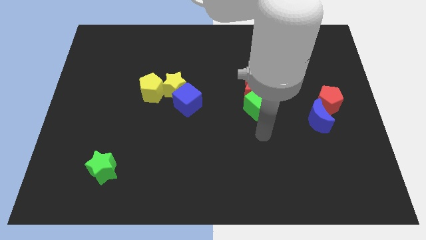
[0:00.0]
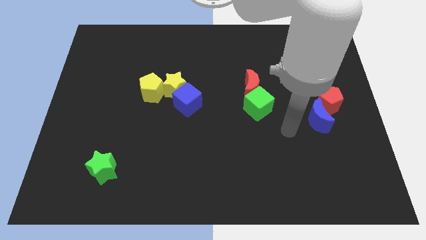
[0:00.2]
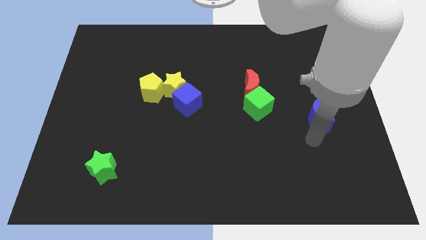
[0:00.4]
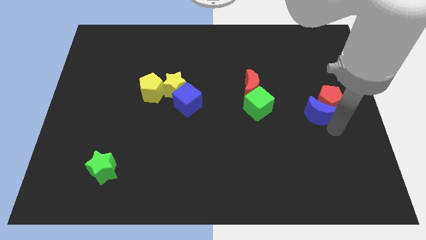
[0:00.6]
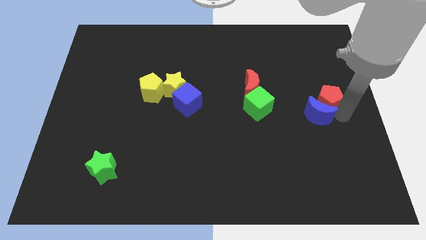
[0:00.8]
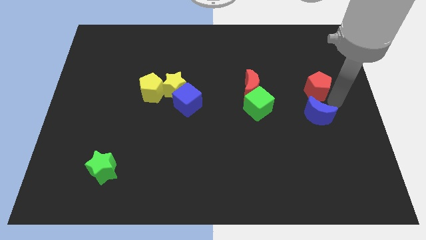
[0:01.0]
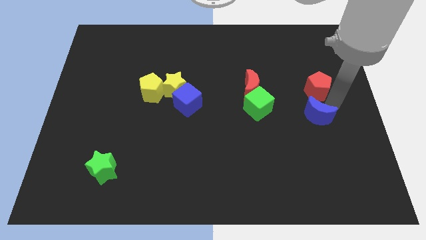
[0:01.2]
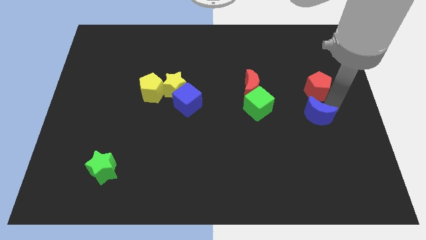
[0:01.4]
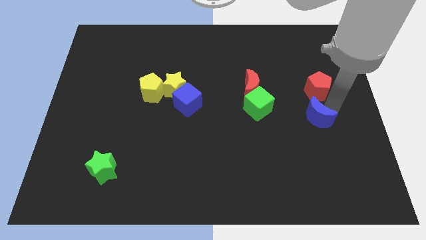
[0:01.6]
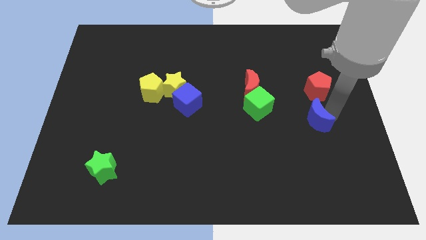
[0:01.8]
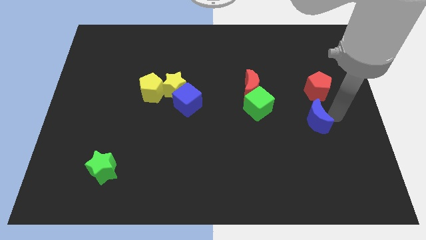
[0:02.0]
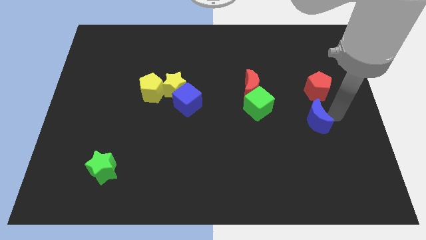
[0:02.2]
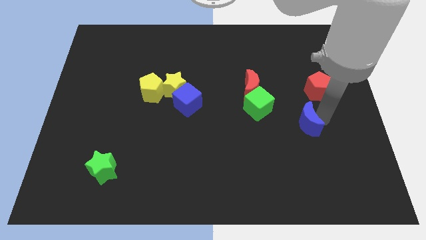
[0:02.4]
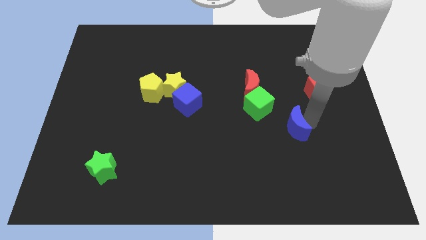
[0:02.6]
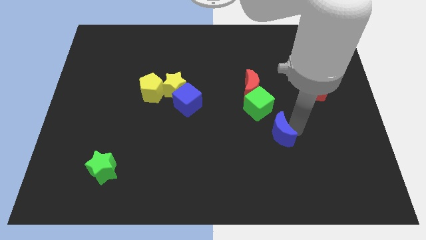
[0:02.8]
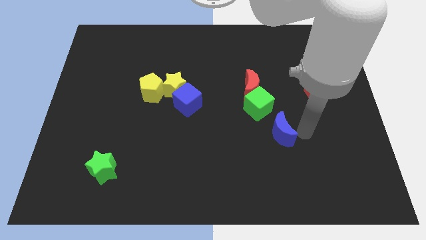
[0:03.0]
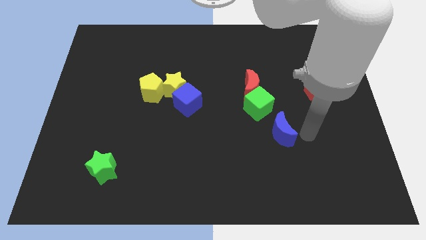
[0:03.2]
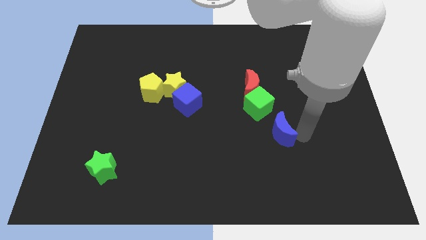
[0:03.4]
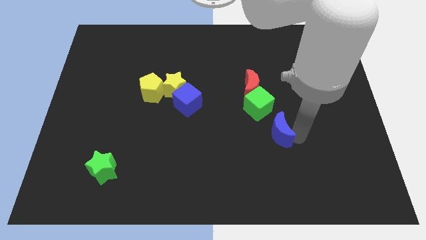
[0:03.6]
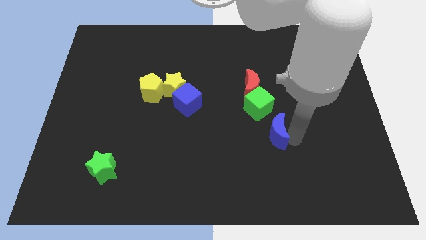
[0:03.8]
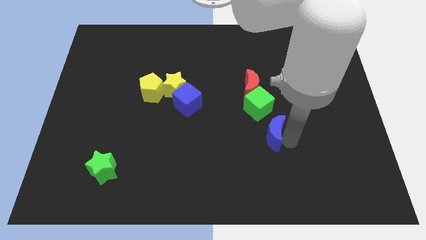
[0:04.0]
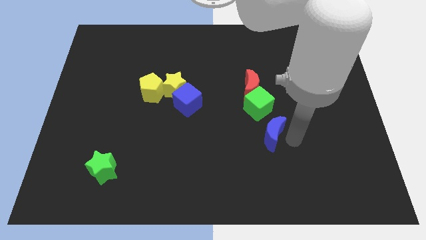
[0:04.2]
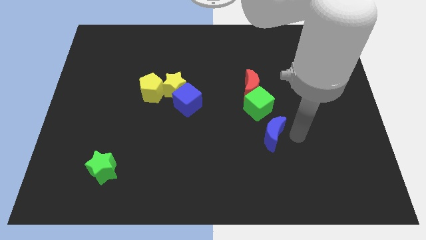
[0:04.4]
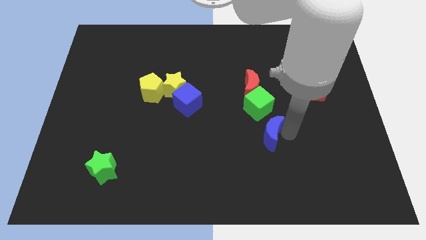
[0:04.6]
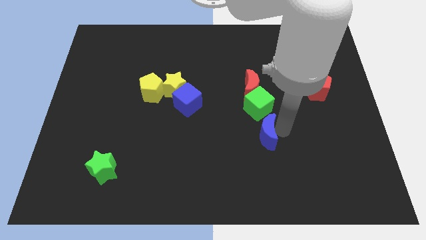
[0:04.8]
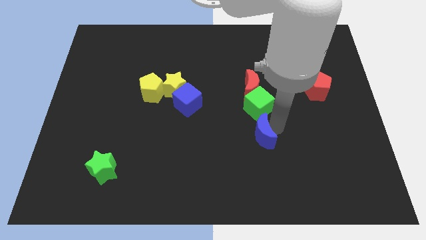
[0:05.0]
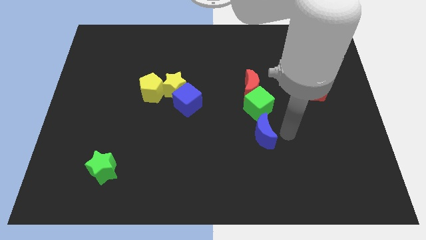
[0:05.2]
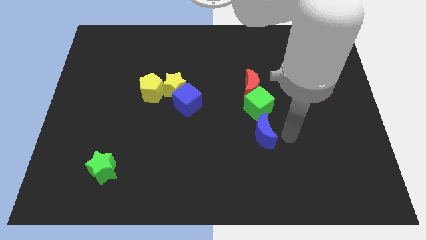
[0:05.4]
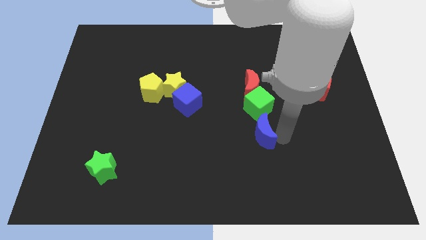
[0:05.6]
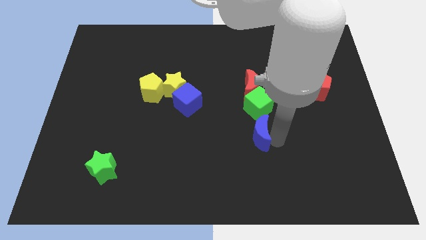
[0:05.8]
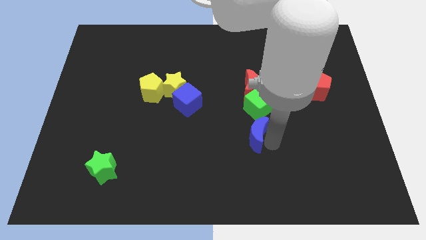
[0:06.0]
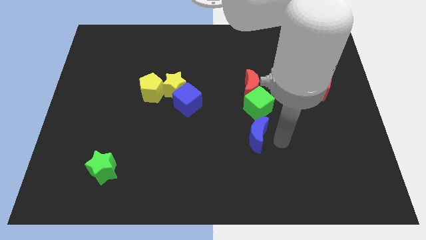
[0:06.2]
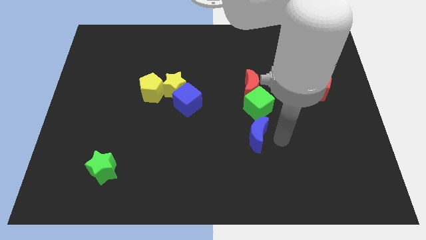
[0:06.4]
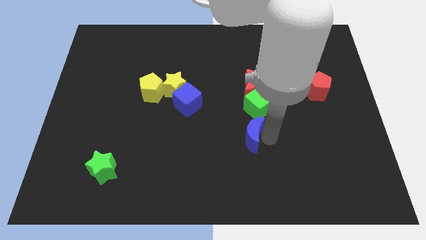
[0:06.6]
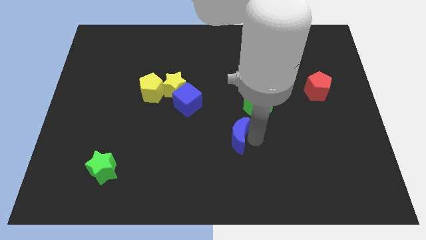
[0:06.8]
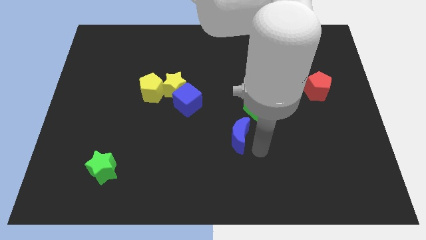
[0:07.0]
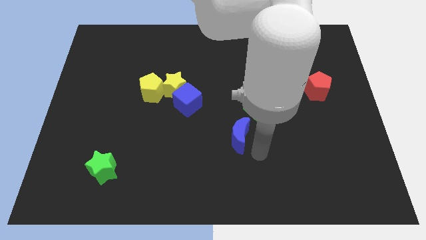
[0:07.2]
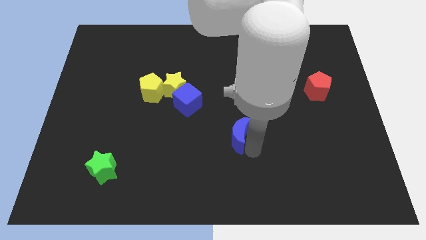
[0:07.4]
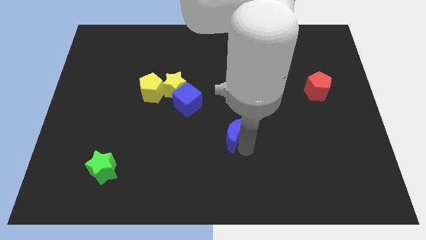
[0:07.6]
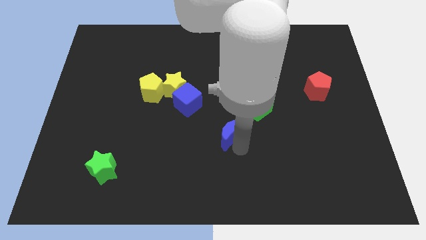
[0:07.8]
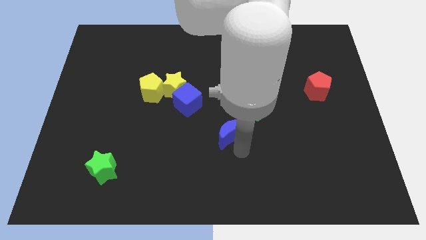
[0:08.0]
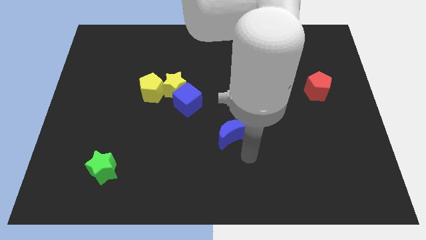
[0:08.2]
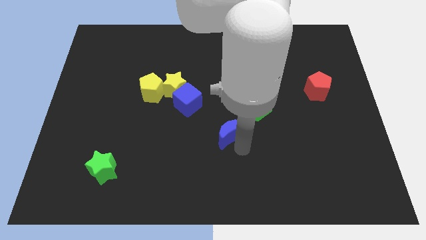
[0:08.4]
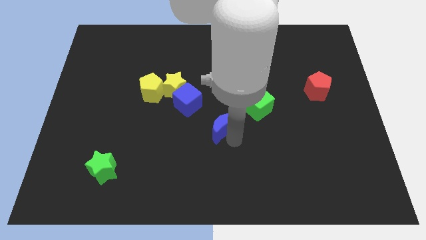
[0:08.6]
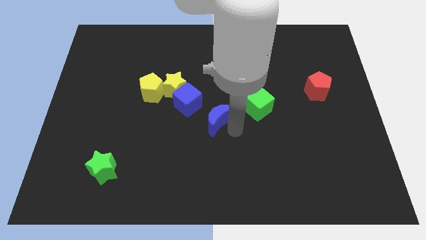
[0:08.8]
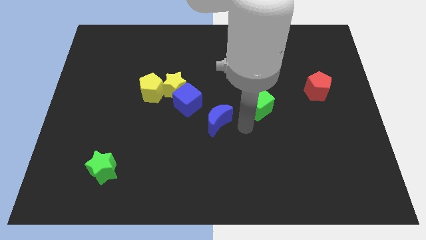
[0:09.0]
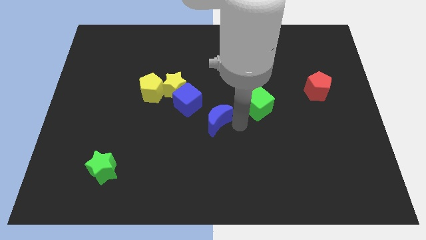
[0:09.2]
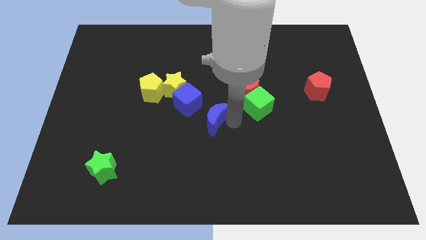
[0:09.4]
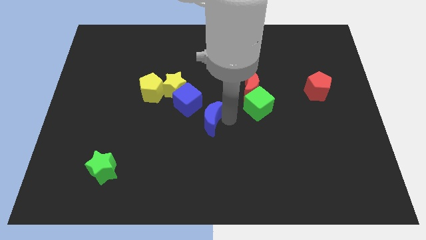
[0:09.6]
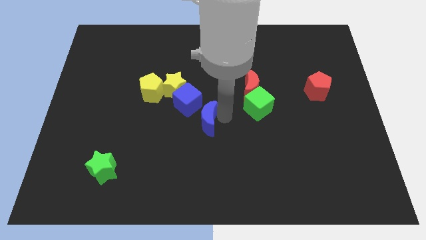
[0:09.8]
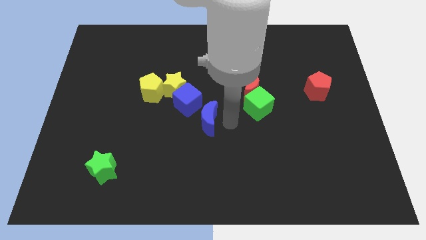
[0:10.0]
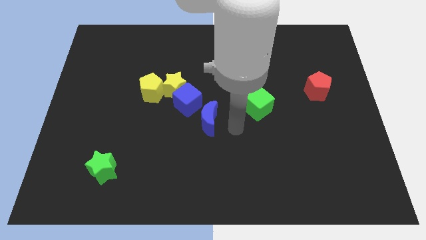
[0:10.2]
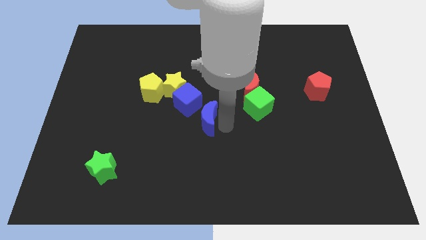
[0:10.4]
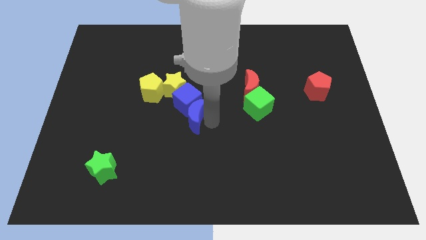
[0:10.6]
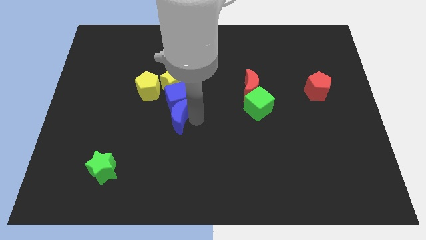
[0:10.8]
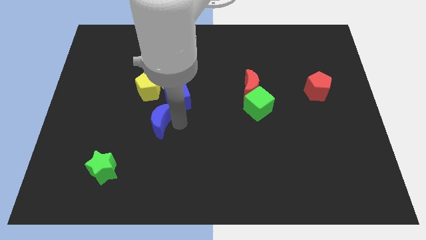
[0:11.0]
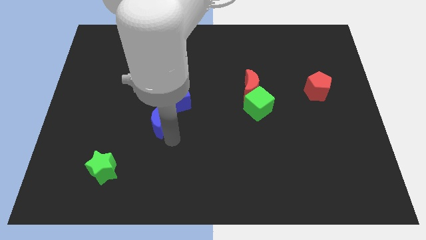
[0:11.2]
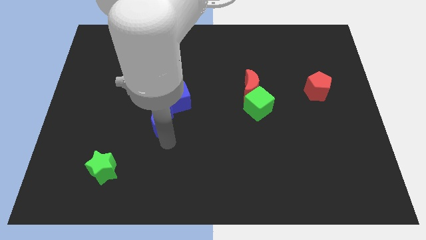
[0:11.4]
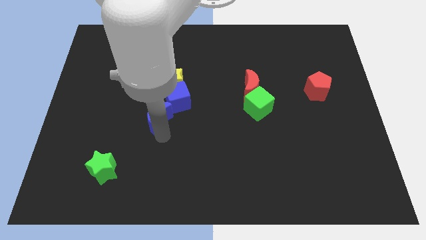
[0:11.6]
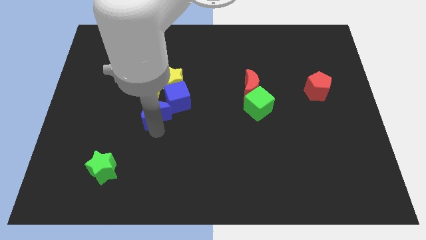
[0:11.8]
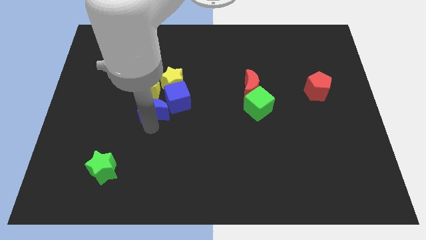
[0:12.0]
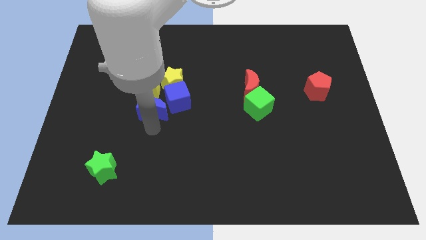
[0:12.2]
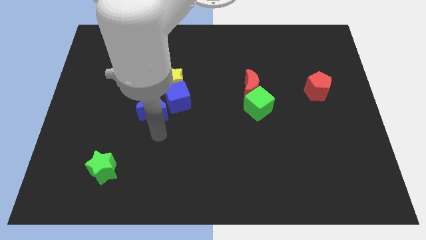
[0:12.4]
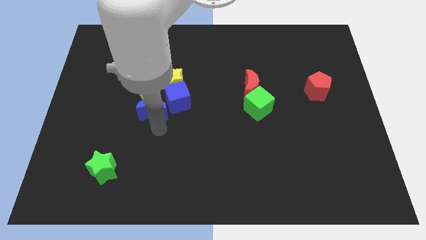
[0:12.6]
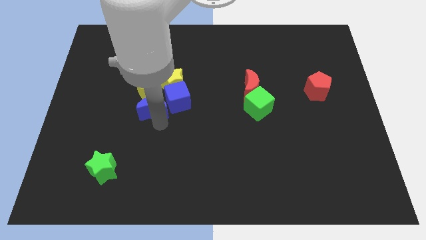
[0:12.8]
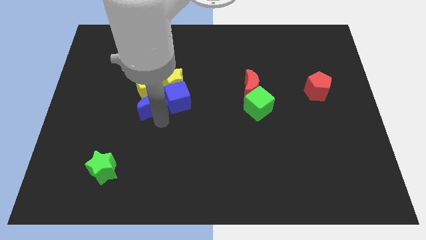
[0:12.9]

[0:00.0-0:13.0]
slide the blue moon close to the yellow pentagon

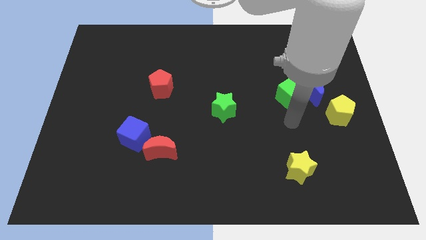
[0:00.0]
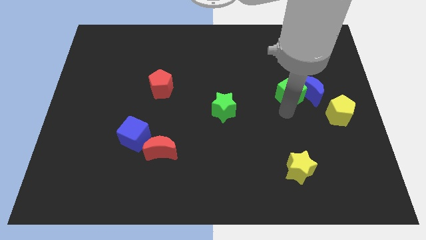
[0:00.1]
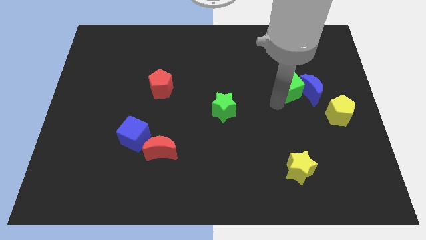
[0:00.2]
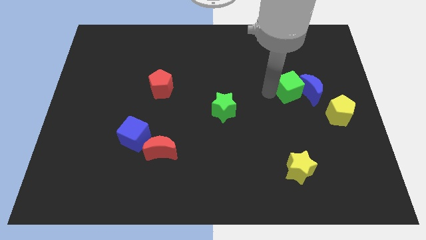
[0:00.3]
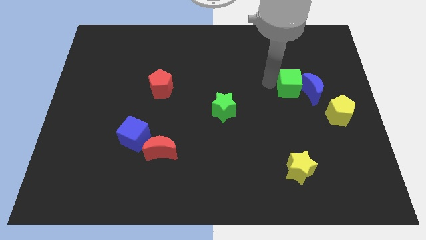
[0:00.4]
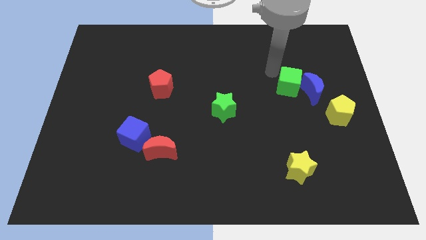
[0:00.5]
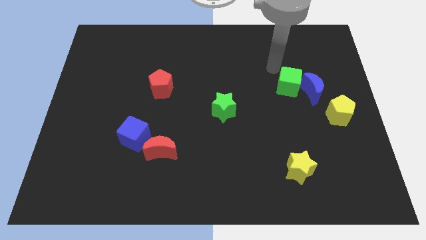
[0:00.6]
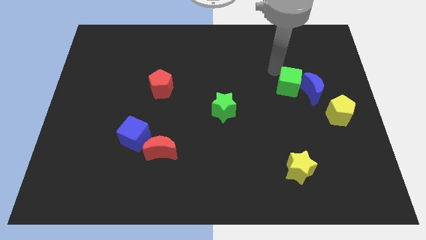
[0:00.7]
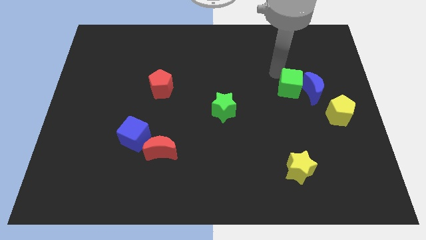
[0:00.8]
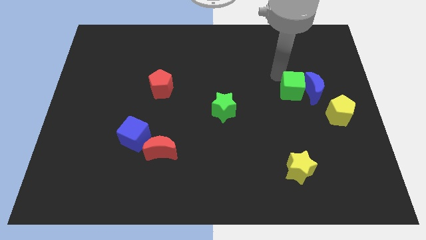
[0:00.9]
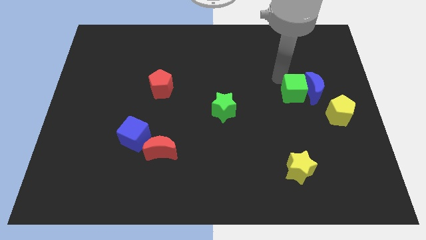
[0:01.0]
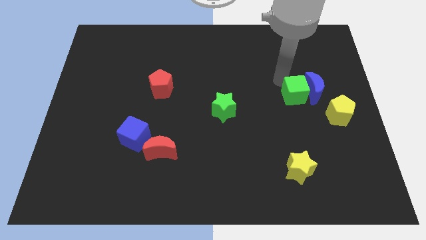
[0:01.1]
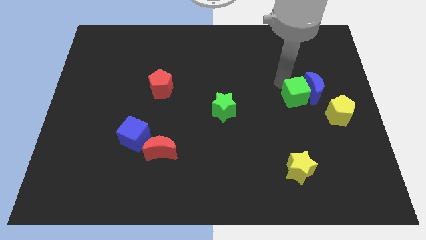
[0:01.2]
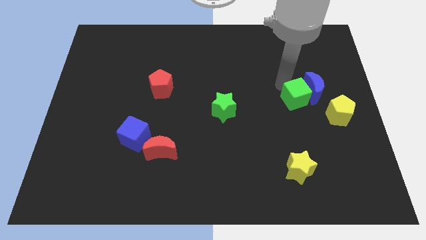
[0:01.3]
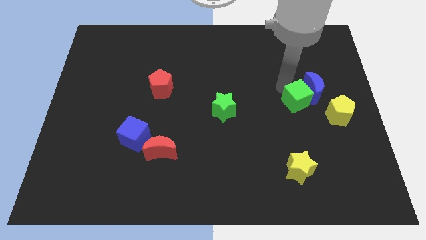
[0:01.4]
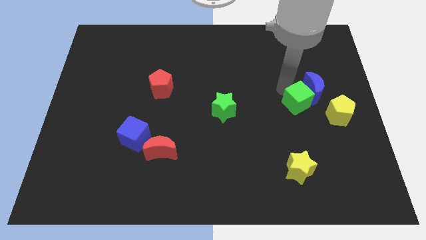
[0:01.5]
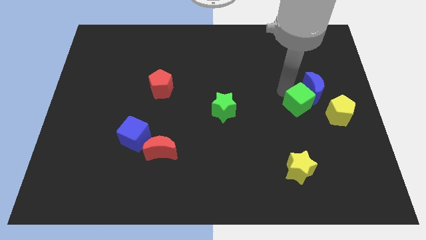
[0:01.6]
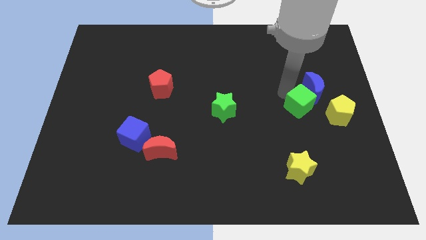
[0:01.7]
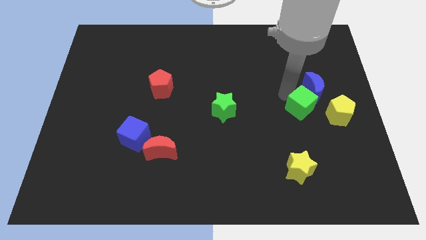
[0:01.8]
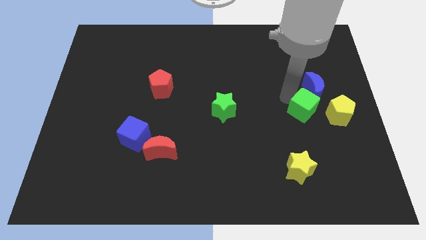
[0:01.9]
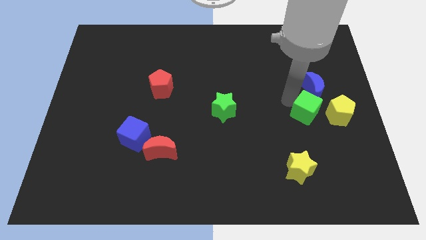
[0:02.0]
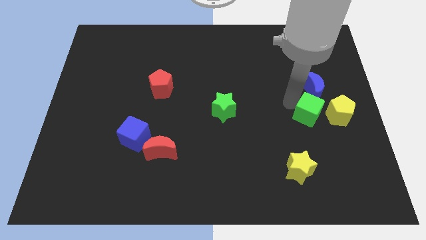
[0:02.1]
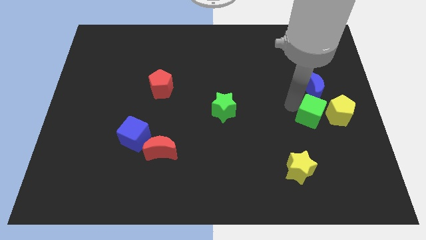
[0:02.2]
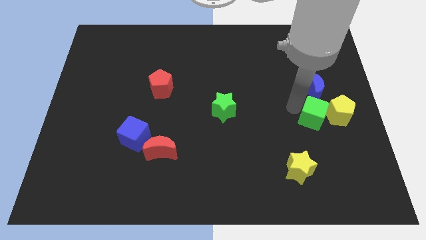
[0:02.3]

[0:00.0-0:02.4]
push the green cube towards the yellow pentagon
